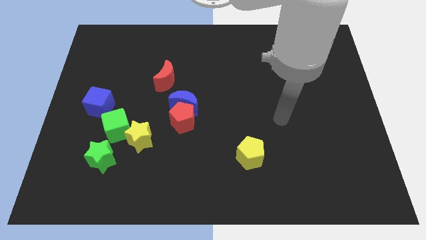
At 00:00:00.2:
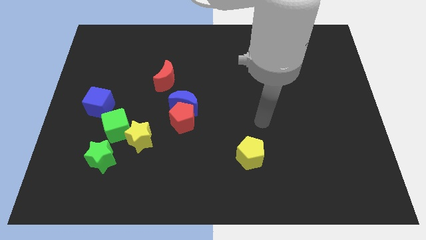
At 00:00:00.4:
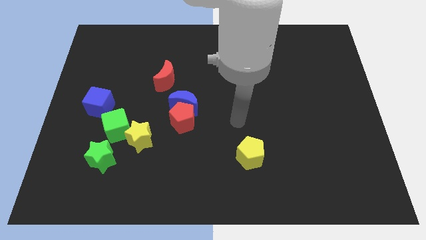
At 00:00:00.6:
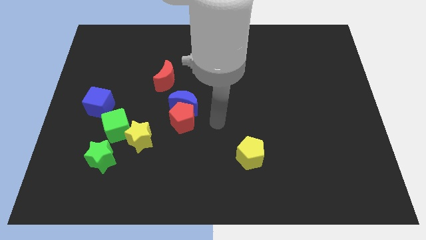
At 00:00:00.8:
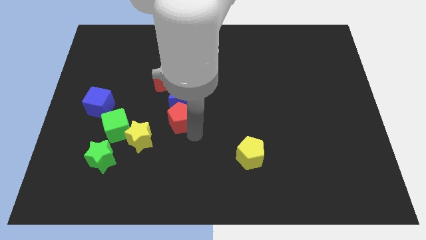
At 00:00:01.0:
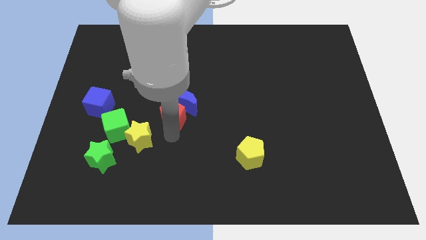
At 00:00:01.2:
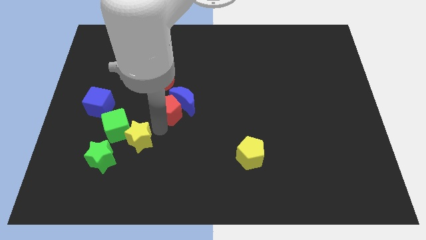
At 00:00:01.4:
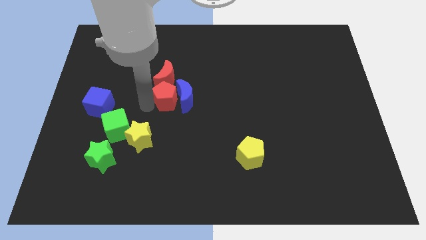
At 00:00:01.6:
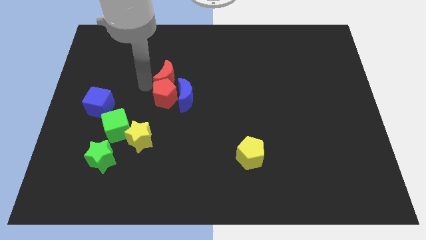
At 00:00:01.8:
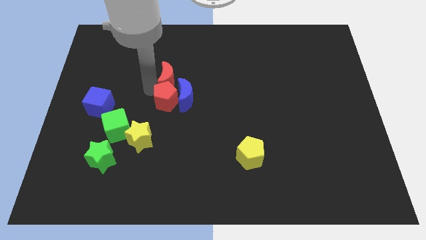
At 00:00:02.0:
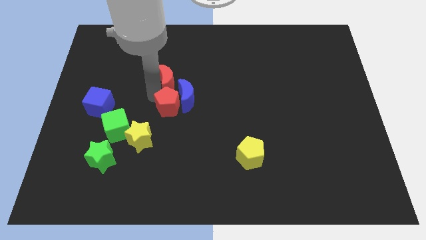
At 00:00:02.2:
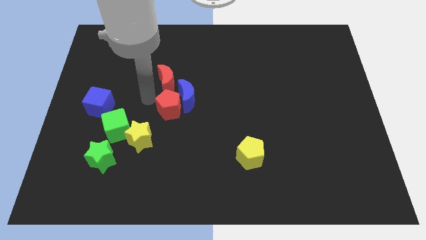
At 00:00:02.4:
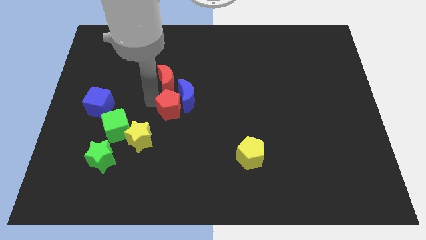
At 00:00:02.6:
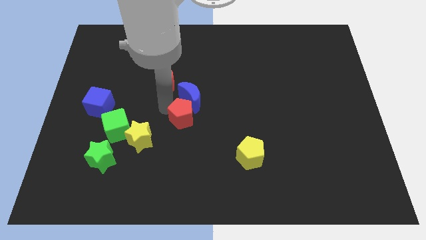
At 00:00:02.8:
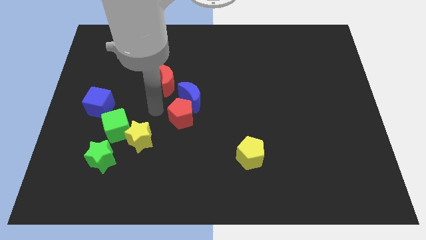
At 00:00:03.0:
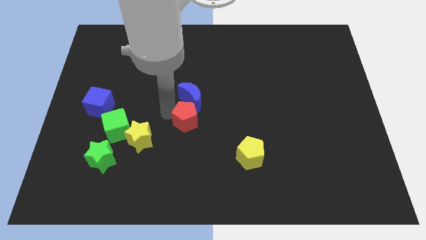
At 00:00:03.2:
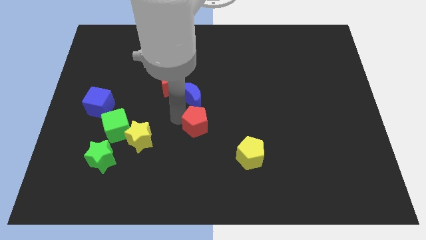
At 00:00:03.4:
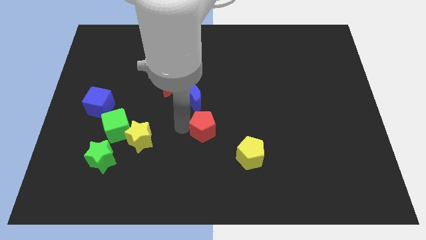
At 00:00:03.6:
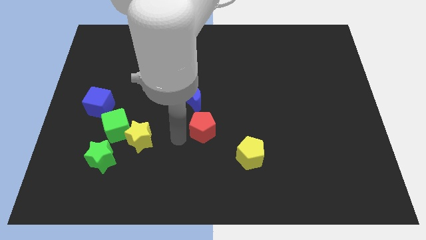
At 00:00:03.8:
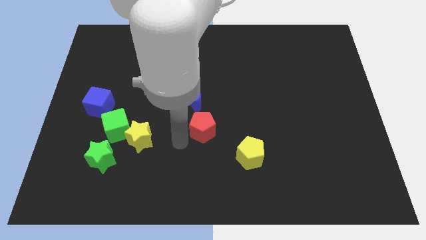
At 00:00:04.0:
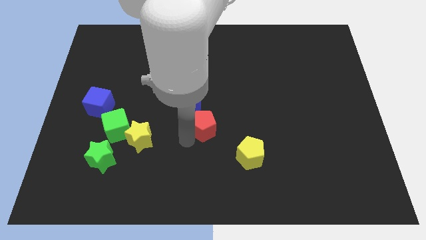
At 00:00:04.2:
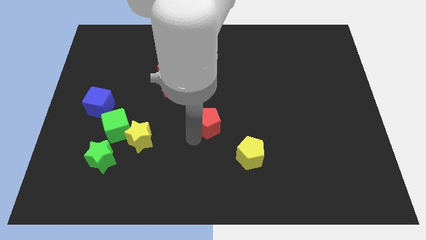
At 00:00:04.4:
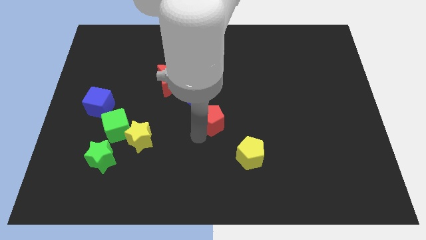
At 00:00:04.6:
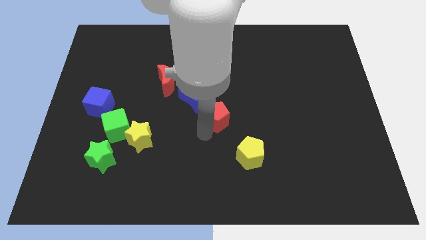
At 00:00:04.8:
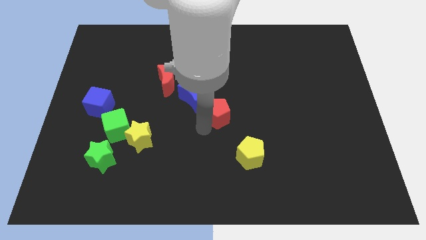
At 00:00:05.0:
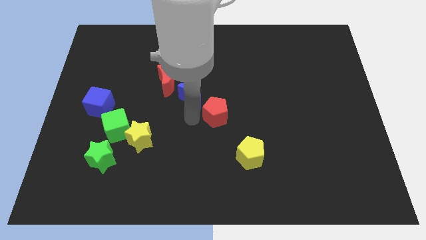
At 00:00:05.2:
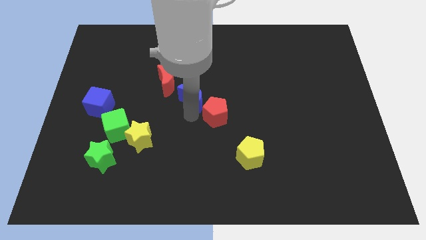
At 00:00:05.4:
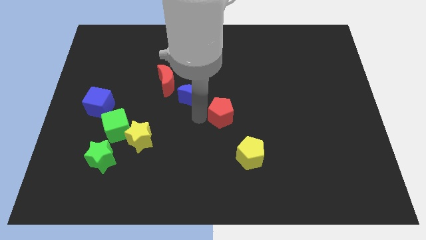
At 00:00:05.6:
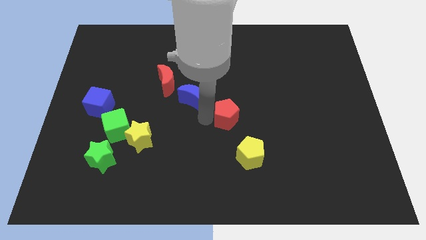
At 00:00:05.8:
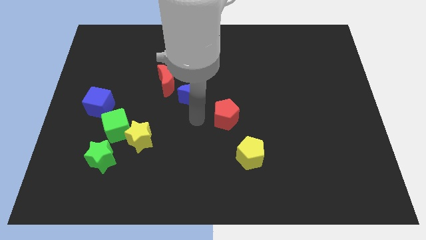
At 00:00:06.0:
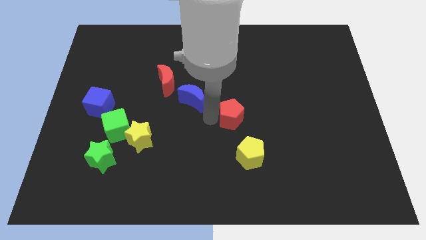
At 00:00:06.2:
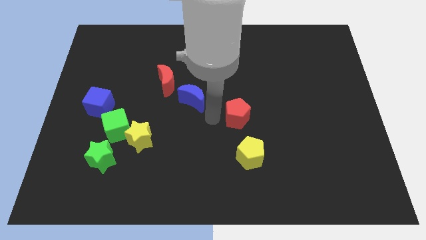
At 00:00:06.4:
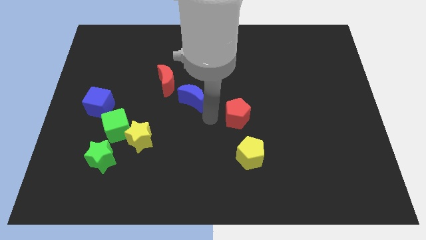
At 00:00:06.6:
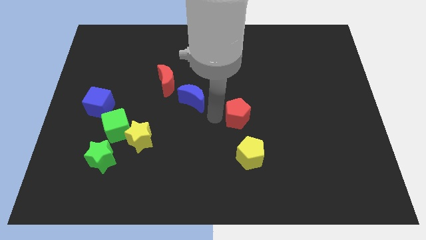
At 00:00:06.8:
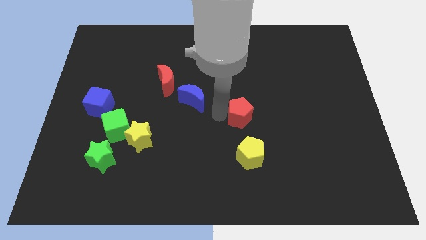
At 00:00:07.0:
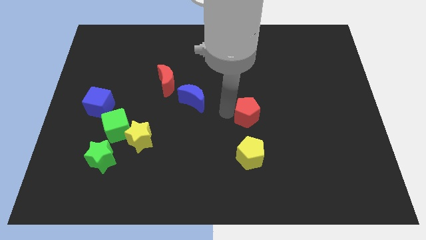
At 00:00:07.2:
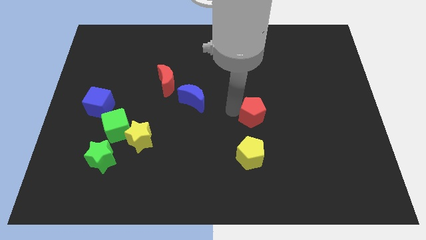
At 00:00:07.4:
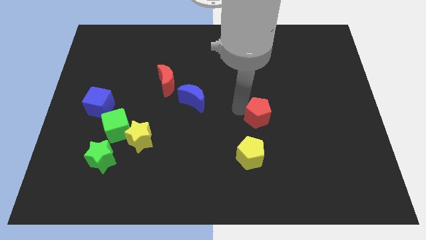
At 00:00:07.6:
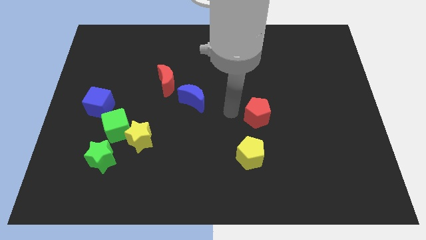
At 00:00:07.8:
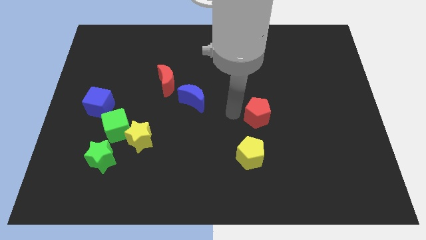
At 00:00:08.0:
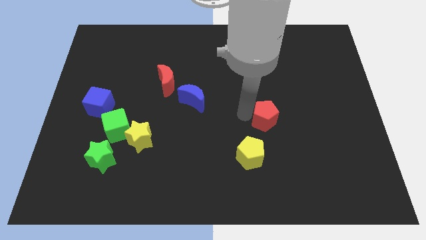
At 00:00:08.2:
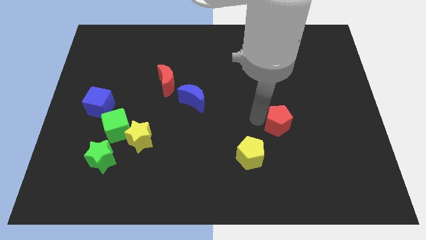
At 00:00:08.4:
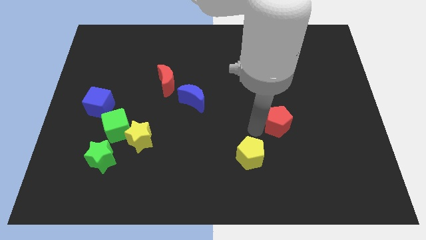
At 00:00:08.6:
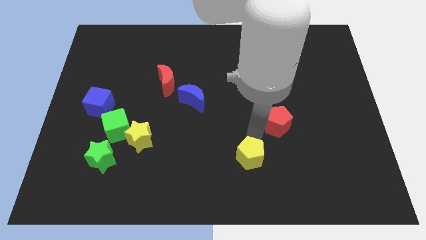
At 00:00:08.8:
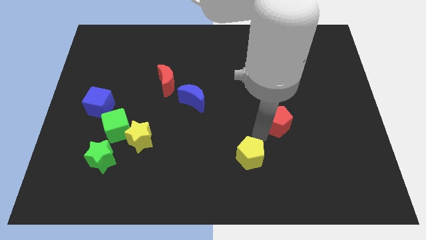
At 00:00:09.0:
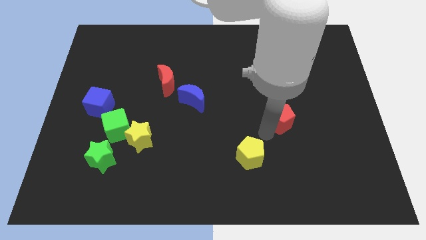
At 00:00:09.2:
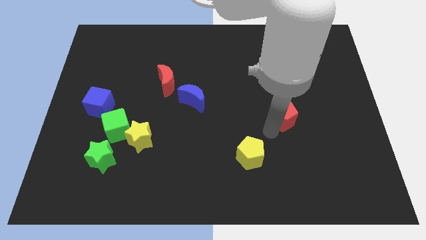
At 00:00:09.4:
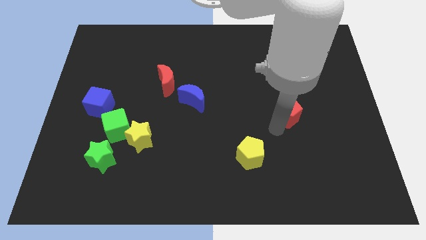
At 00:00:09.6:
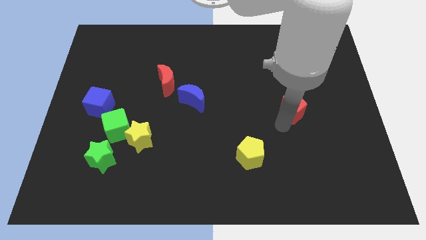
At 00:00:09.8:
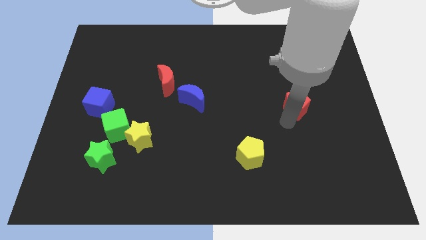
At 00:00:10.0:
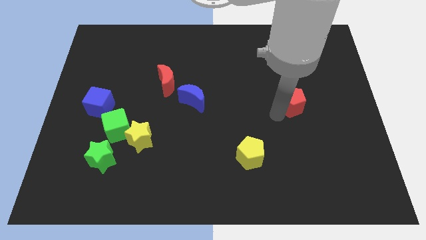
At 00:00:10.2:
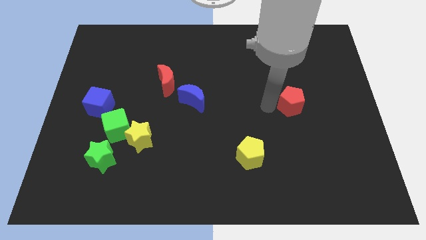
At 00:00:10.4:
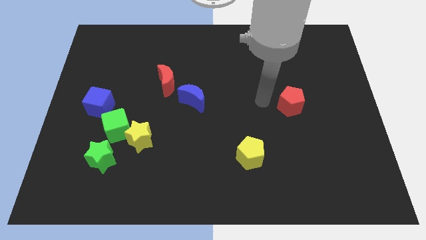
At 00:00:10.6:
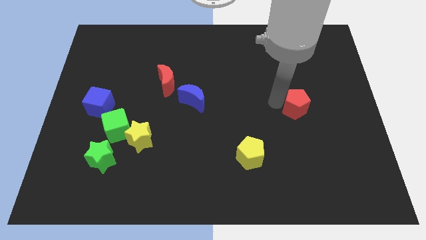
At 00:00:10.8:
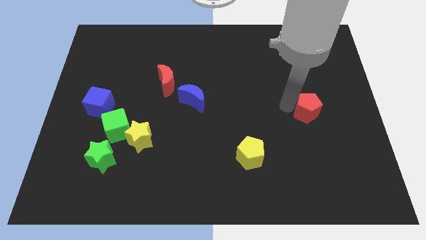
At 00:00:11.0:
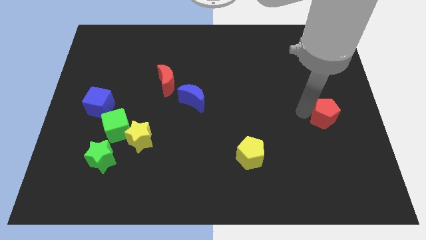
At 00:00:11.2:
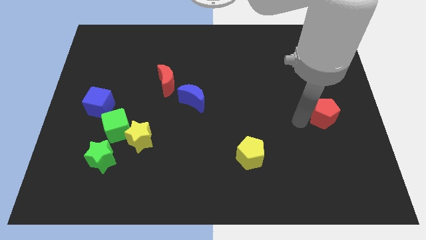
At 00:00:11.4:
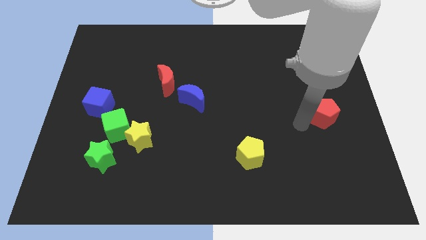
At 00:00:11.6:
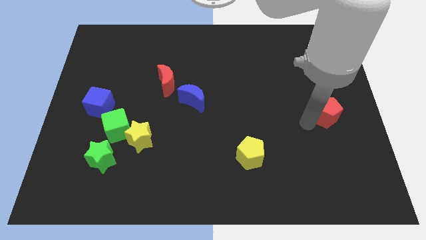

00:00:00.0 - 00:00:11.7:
put the red pentagon to the right side

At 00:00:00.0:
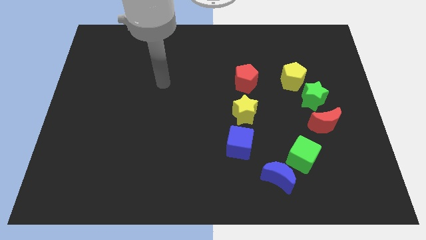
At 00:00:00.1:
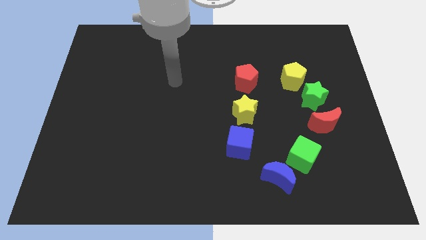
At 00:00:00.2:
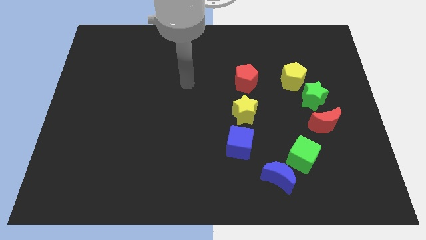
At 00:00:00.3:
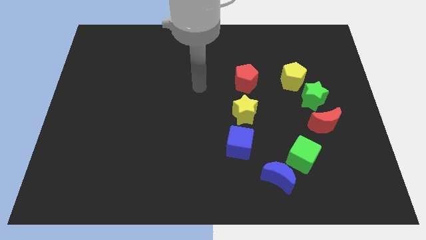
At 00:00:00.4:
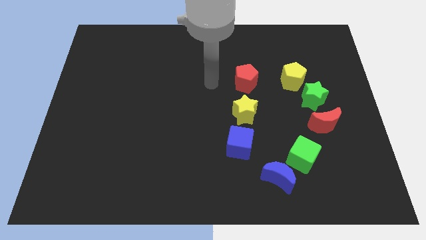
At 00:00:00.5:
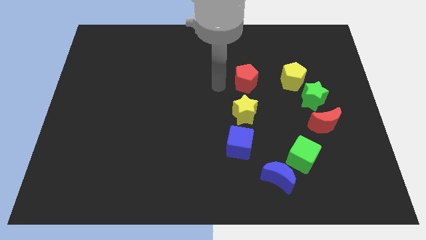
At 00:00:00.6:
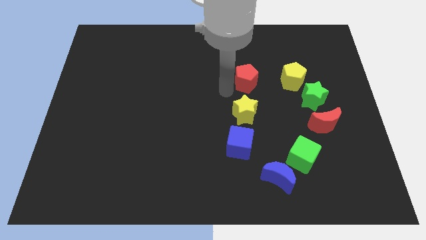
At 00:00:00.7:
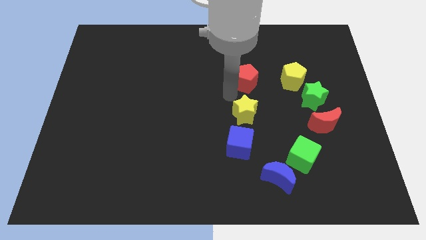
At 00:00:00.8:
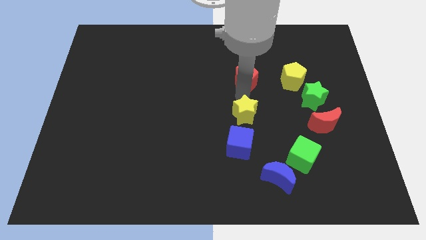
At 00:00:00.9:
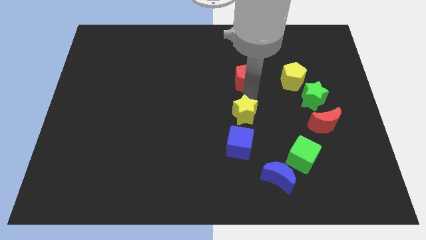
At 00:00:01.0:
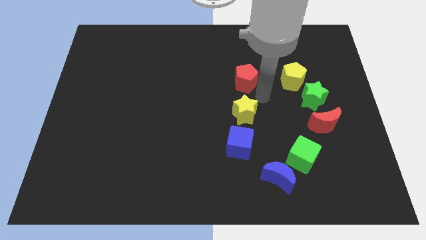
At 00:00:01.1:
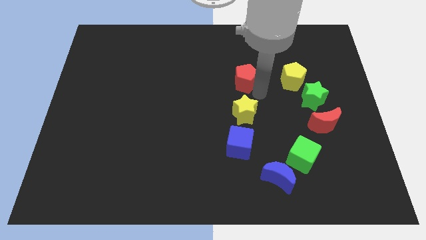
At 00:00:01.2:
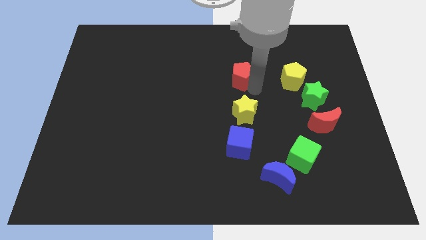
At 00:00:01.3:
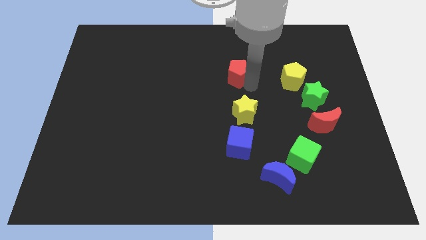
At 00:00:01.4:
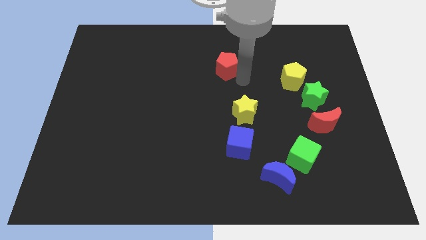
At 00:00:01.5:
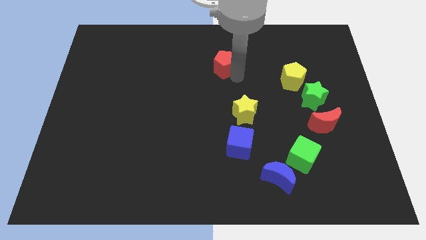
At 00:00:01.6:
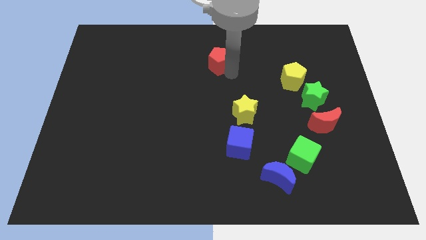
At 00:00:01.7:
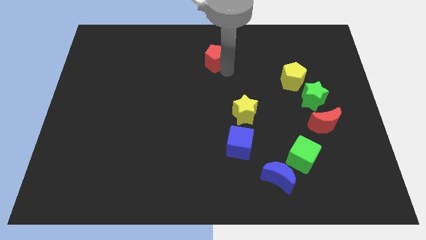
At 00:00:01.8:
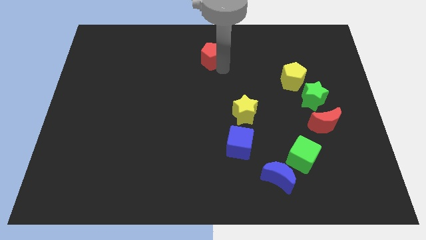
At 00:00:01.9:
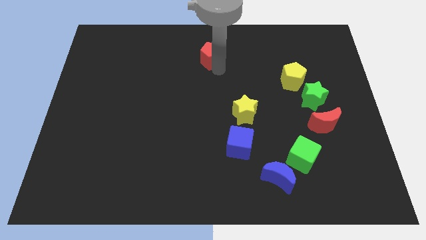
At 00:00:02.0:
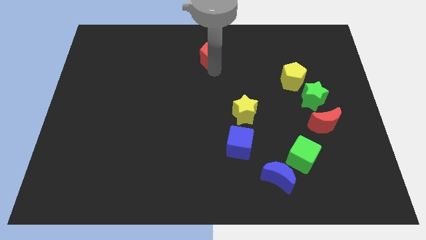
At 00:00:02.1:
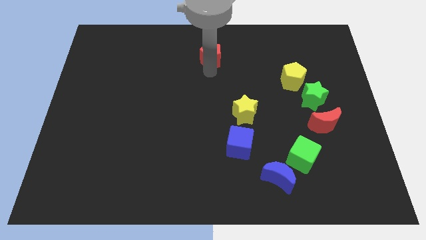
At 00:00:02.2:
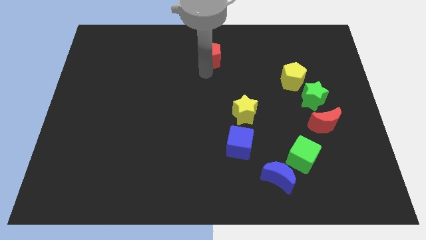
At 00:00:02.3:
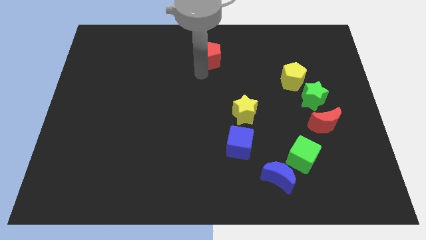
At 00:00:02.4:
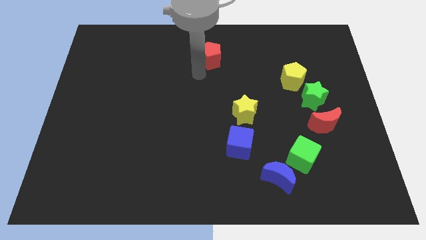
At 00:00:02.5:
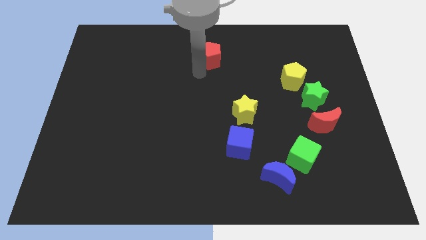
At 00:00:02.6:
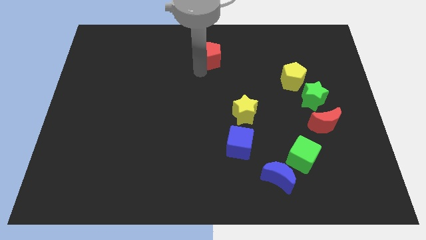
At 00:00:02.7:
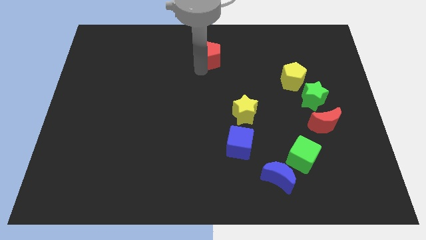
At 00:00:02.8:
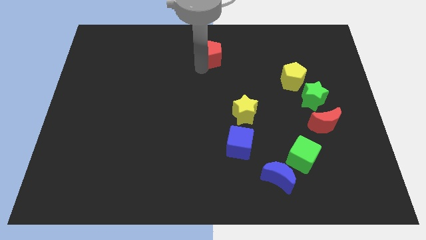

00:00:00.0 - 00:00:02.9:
move the red pentagon to the top side
